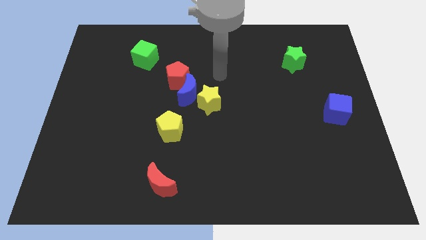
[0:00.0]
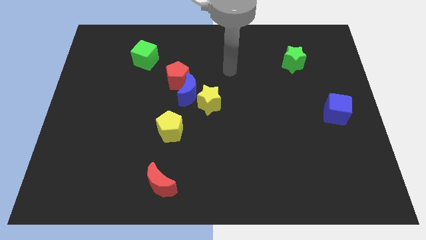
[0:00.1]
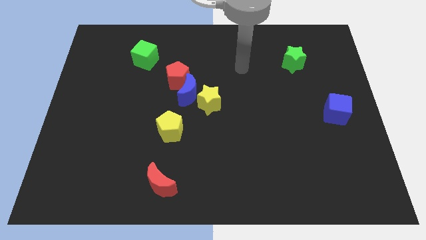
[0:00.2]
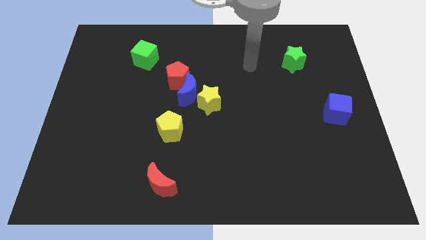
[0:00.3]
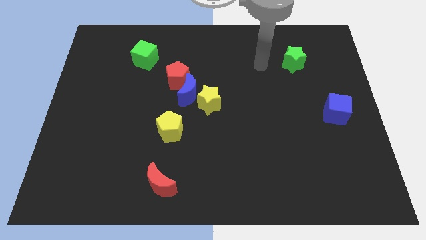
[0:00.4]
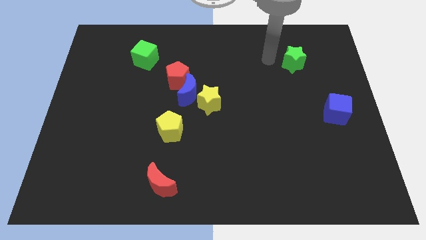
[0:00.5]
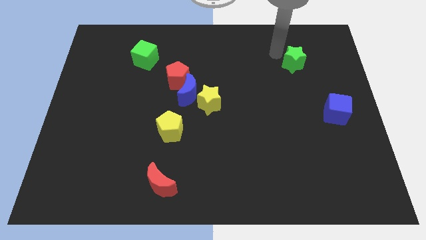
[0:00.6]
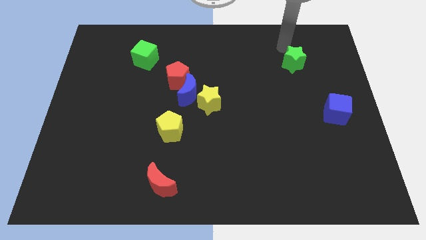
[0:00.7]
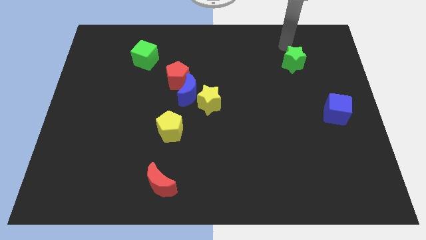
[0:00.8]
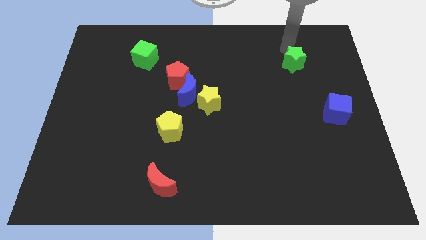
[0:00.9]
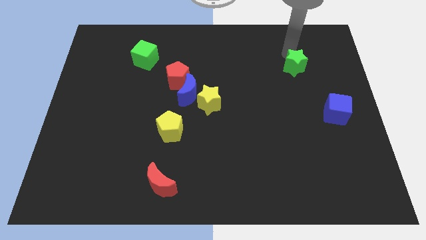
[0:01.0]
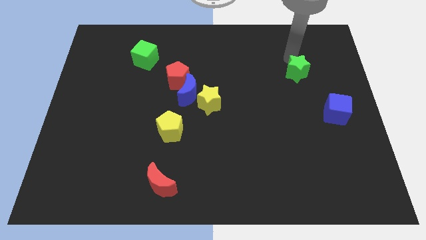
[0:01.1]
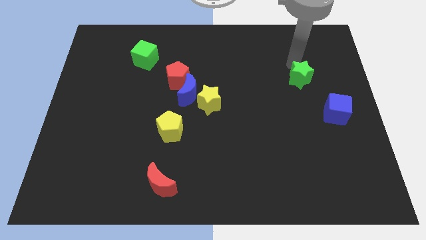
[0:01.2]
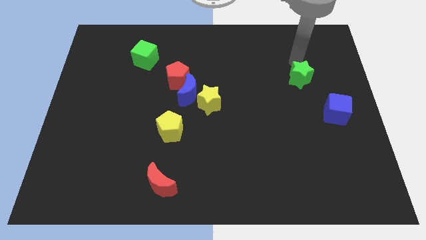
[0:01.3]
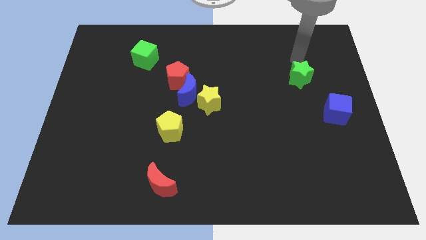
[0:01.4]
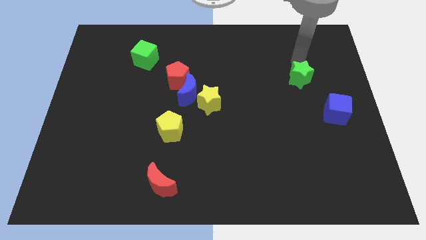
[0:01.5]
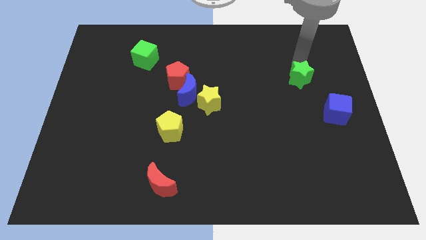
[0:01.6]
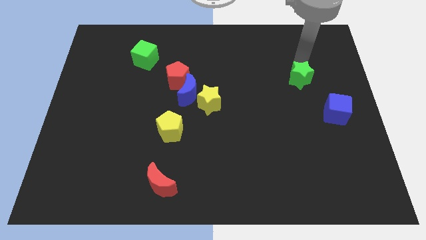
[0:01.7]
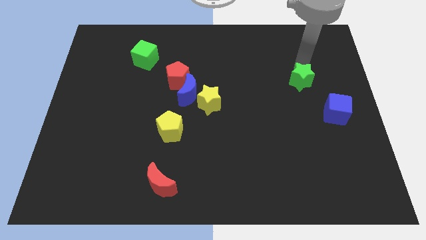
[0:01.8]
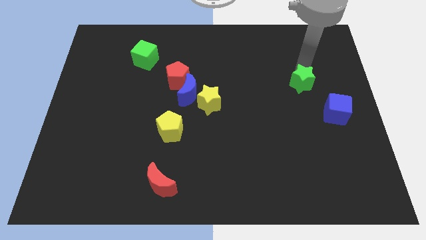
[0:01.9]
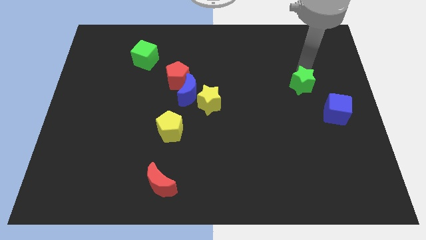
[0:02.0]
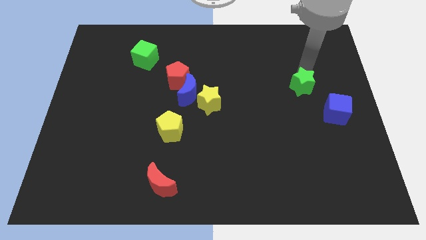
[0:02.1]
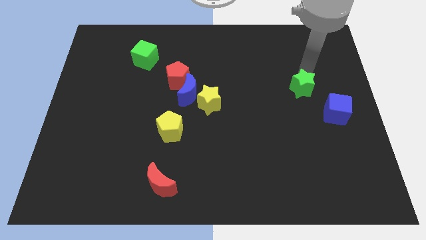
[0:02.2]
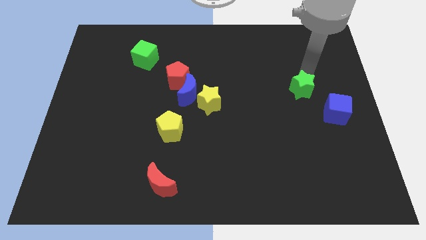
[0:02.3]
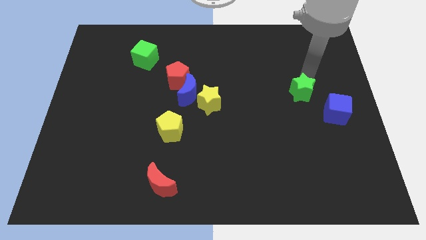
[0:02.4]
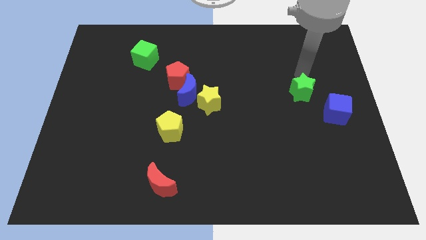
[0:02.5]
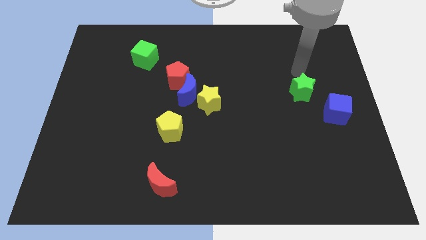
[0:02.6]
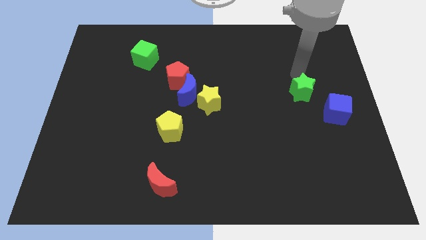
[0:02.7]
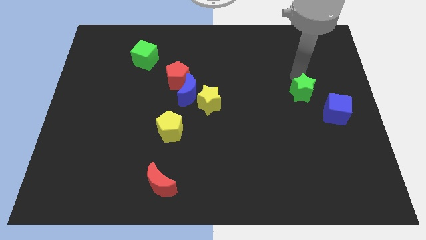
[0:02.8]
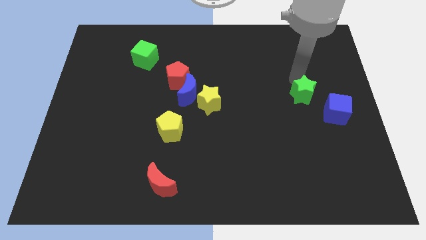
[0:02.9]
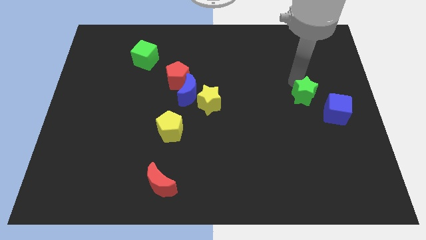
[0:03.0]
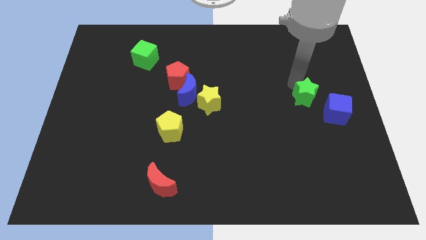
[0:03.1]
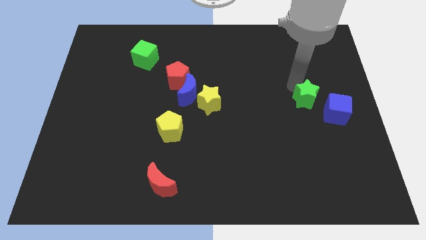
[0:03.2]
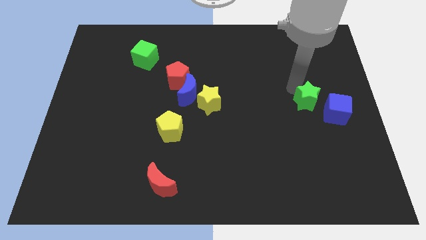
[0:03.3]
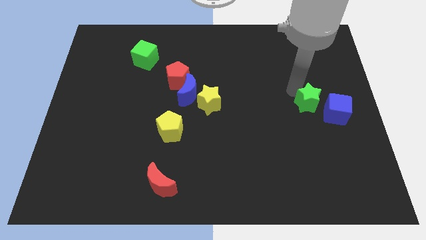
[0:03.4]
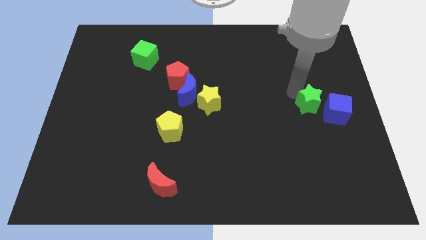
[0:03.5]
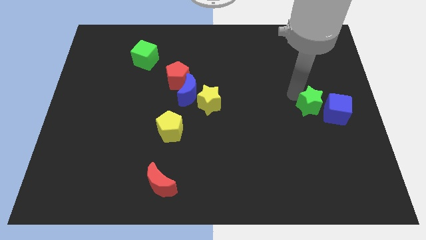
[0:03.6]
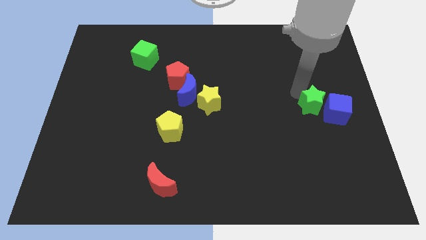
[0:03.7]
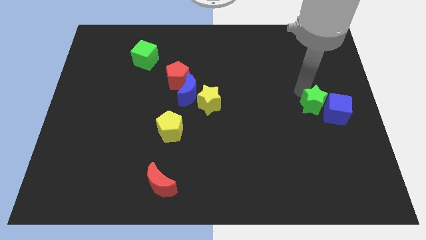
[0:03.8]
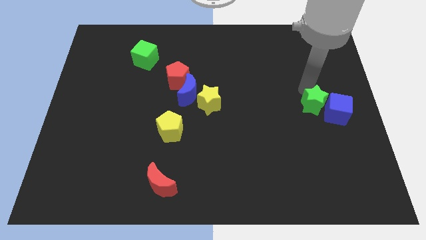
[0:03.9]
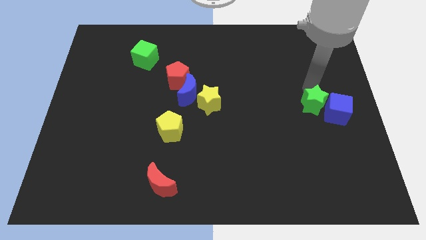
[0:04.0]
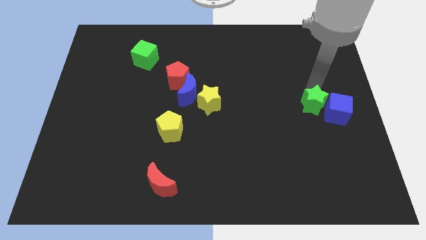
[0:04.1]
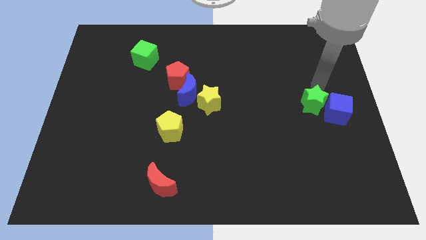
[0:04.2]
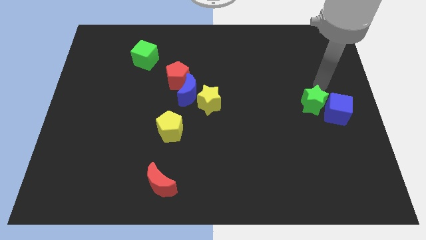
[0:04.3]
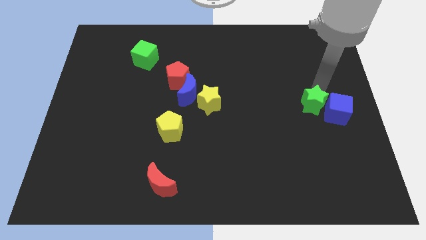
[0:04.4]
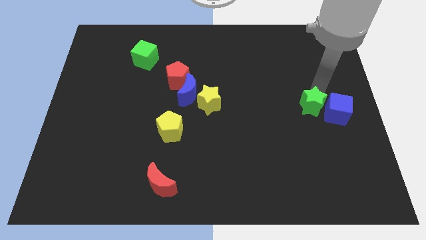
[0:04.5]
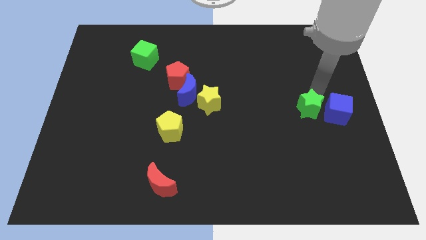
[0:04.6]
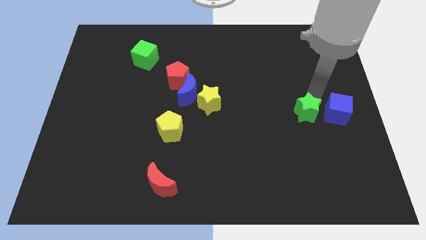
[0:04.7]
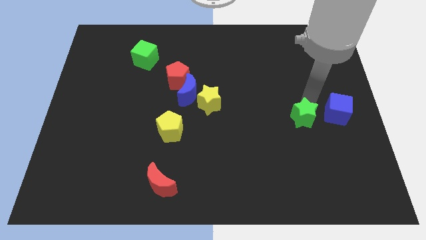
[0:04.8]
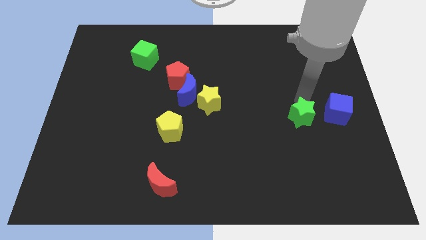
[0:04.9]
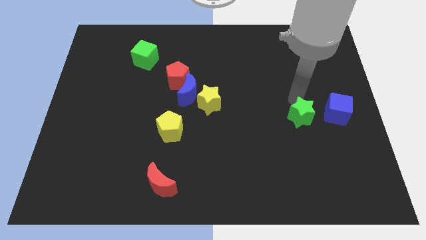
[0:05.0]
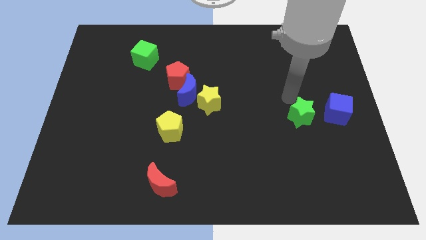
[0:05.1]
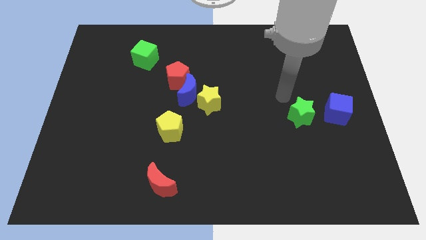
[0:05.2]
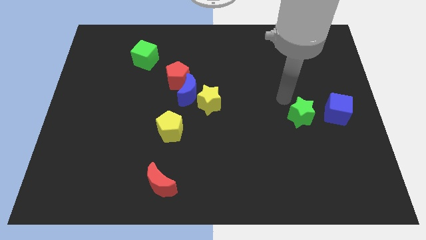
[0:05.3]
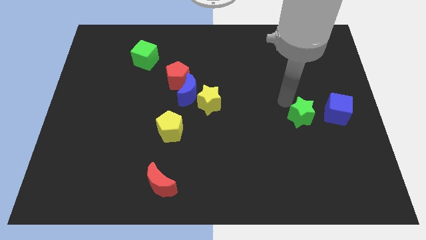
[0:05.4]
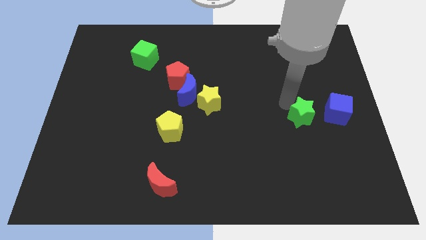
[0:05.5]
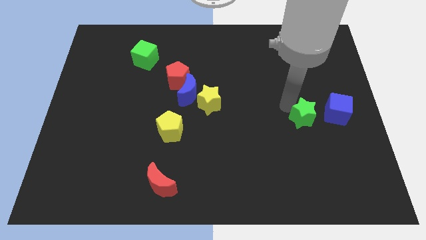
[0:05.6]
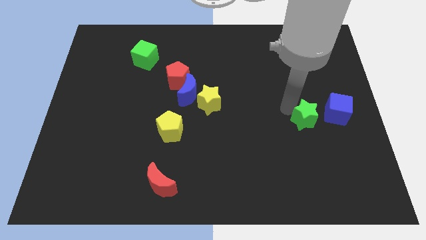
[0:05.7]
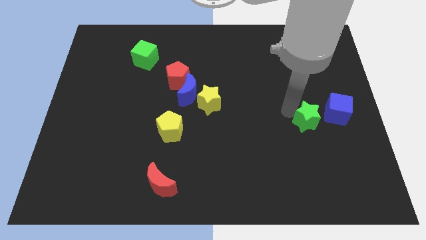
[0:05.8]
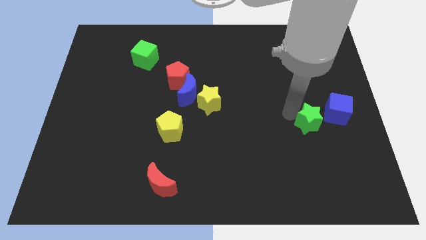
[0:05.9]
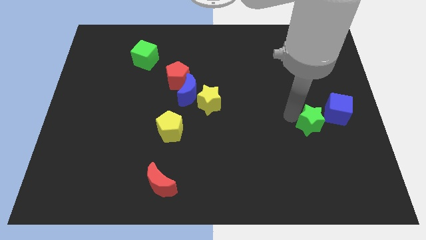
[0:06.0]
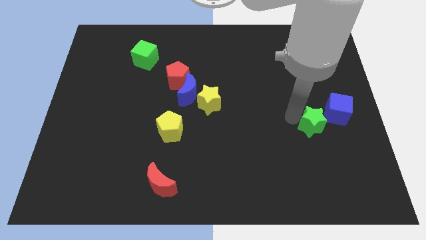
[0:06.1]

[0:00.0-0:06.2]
slide the green star downwards

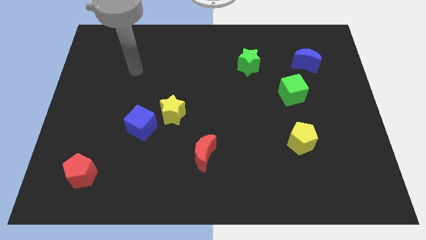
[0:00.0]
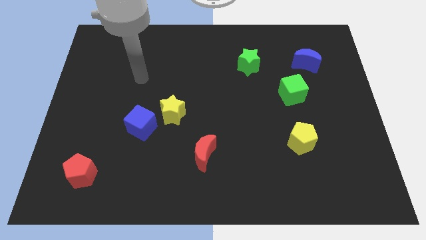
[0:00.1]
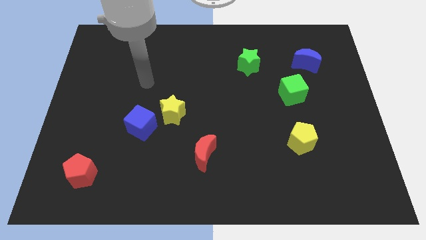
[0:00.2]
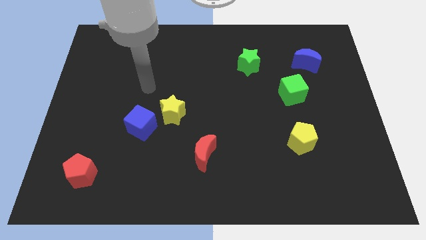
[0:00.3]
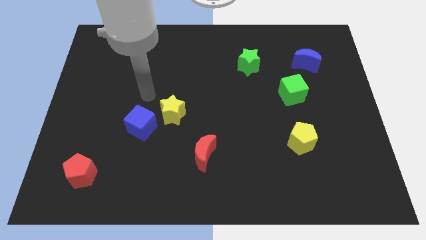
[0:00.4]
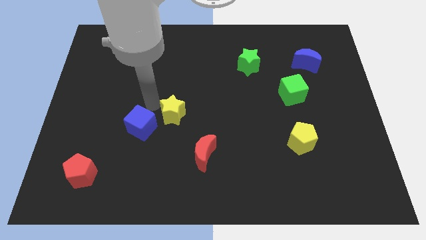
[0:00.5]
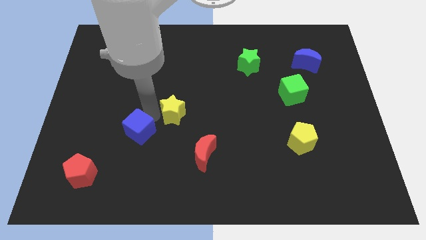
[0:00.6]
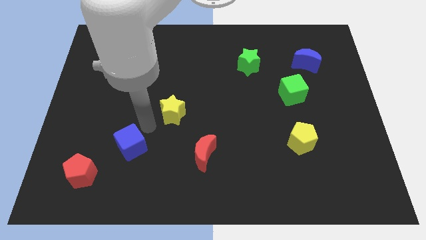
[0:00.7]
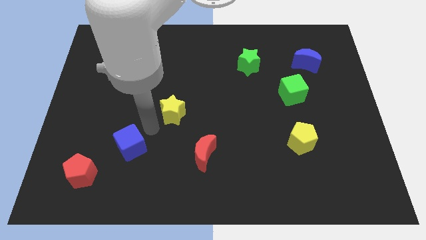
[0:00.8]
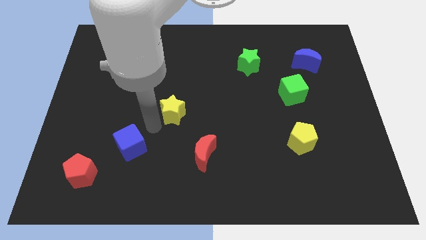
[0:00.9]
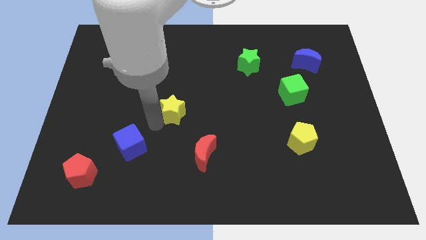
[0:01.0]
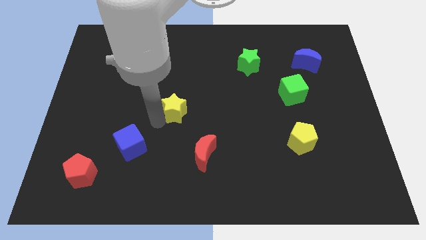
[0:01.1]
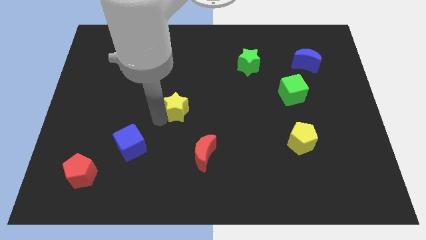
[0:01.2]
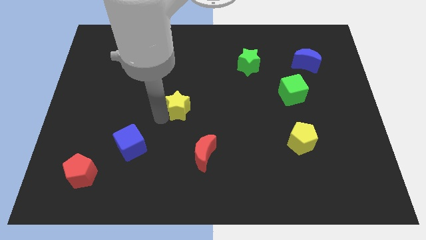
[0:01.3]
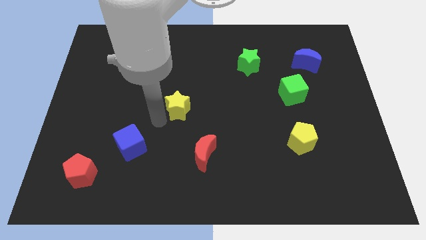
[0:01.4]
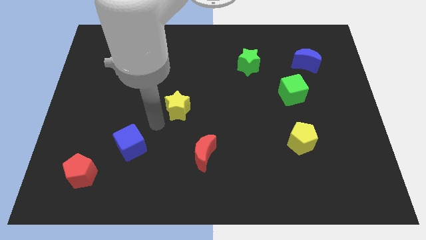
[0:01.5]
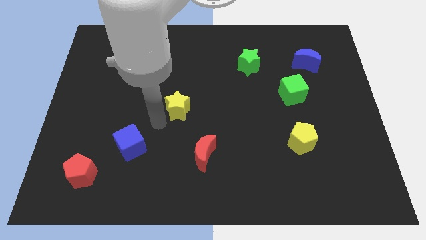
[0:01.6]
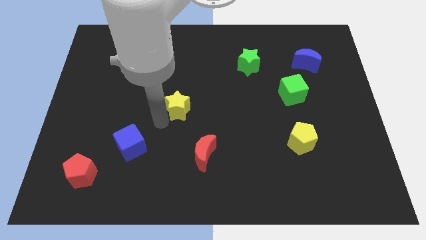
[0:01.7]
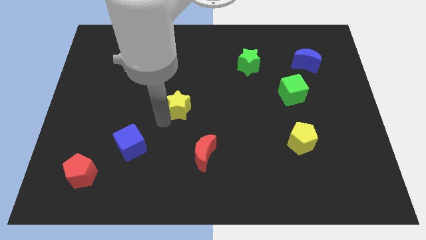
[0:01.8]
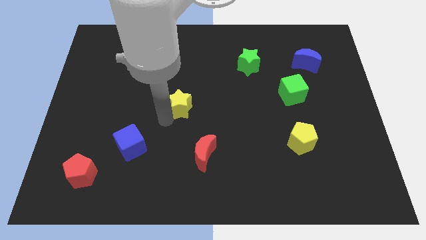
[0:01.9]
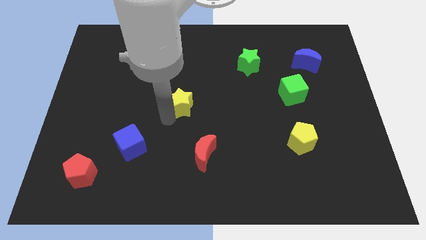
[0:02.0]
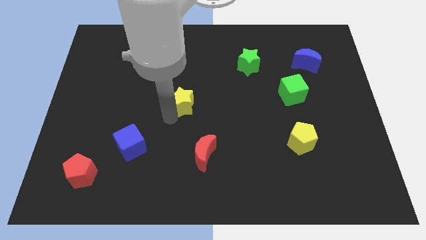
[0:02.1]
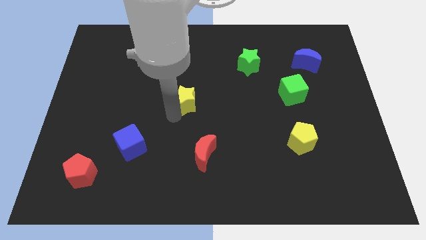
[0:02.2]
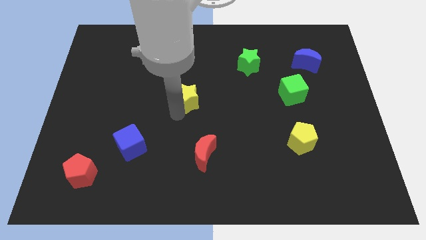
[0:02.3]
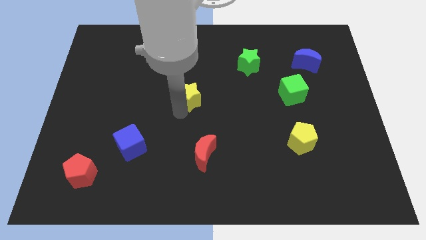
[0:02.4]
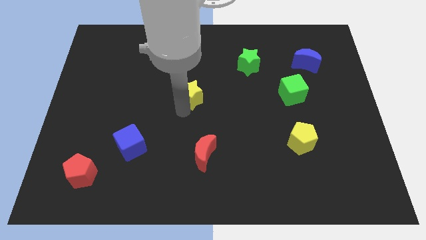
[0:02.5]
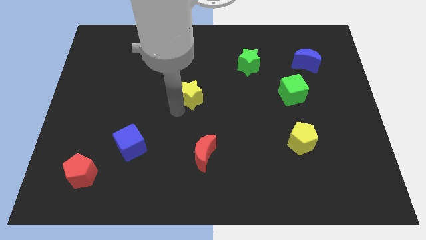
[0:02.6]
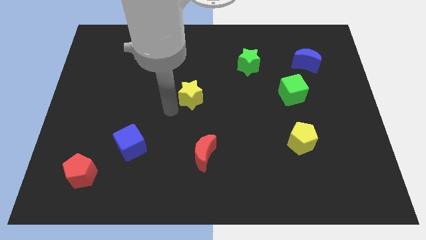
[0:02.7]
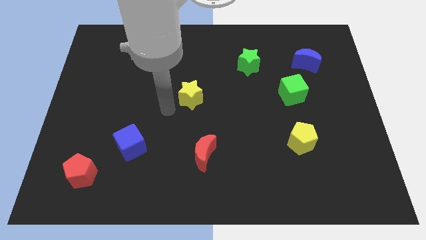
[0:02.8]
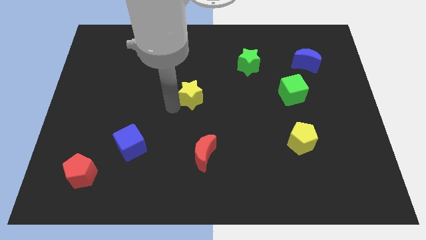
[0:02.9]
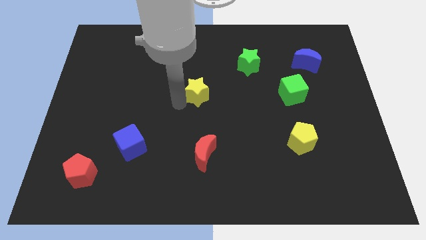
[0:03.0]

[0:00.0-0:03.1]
move the yellow star a little bit upwards and then right
